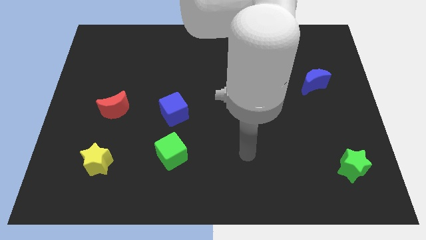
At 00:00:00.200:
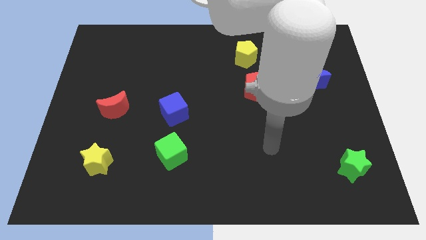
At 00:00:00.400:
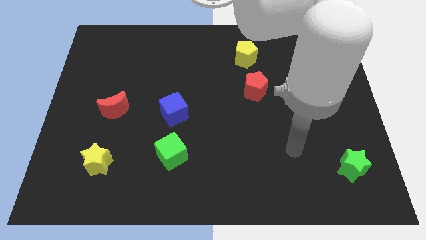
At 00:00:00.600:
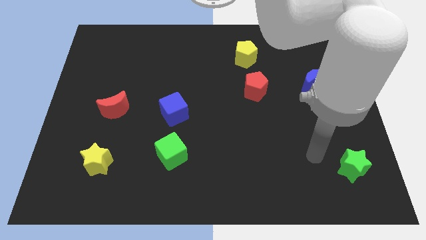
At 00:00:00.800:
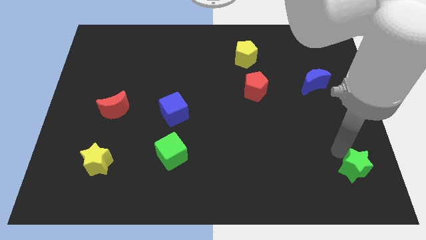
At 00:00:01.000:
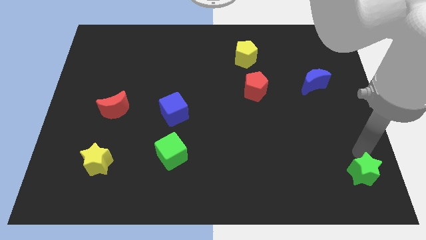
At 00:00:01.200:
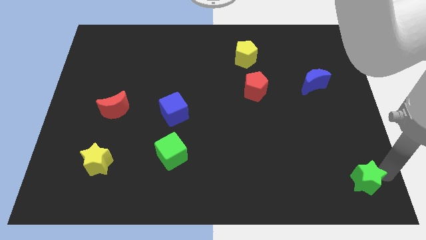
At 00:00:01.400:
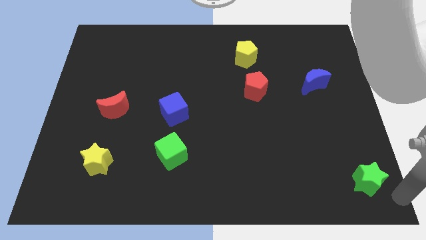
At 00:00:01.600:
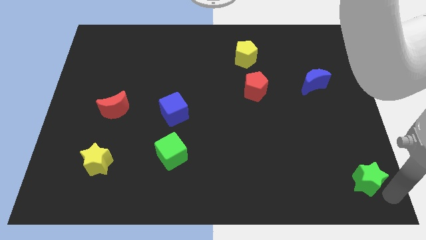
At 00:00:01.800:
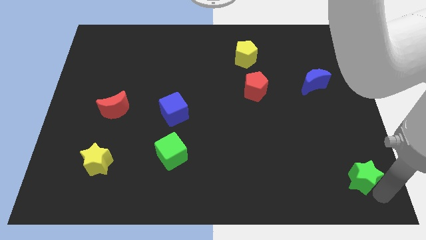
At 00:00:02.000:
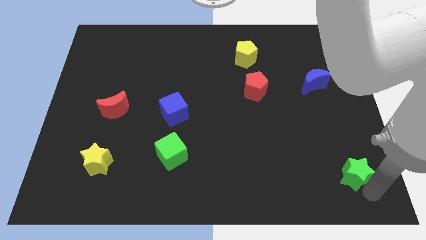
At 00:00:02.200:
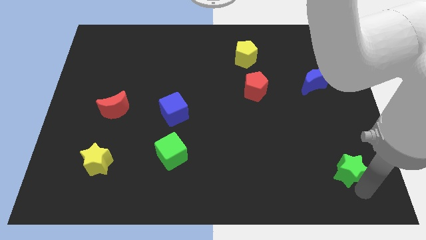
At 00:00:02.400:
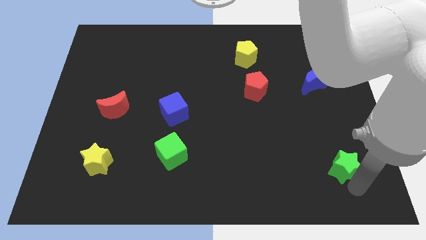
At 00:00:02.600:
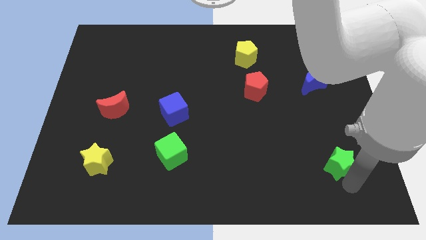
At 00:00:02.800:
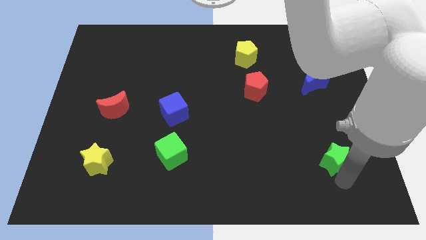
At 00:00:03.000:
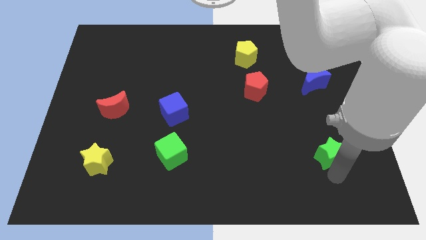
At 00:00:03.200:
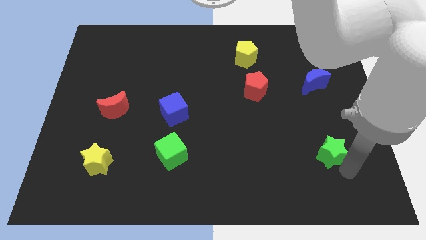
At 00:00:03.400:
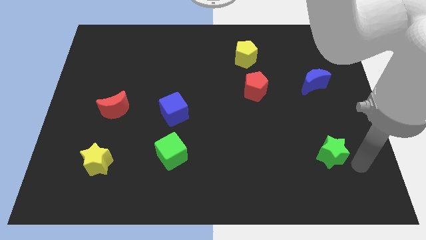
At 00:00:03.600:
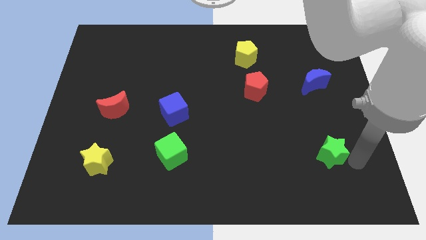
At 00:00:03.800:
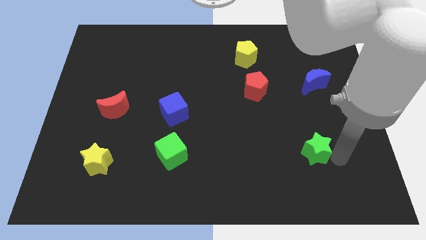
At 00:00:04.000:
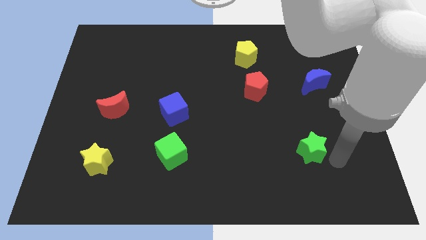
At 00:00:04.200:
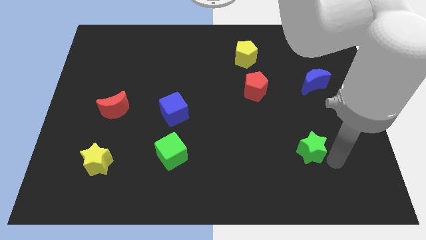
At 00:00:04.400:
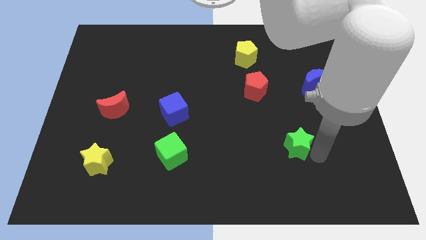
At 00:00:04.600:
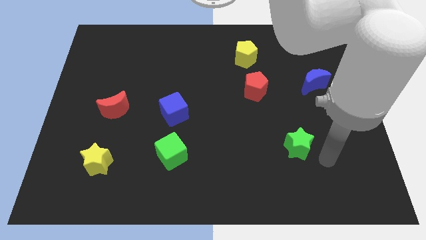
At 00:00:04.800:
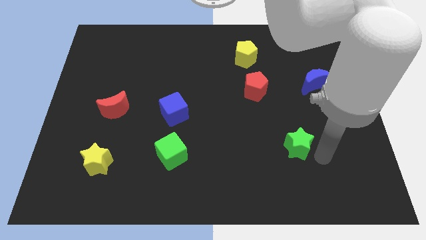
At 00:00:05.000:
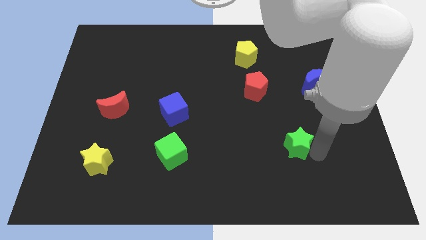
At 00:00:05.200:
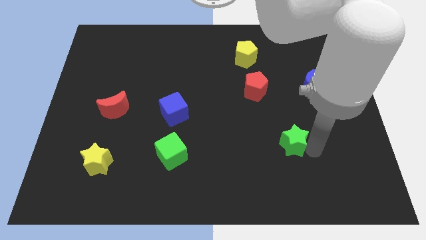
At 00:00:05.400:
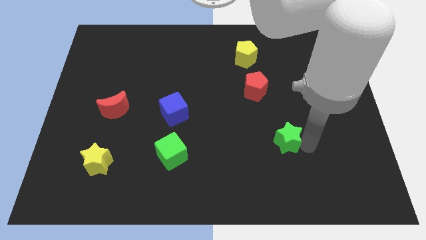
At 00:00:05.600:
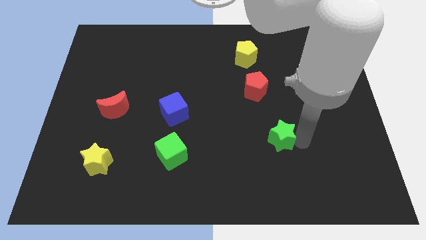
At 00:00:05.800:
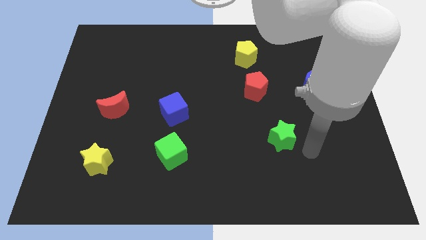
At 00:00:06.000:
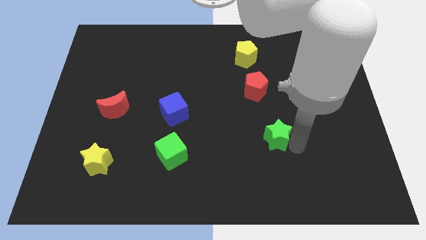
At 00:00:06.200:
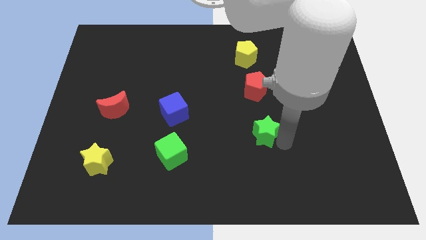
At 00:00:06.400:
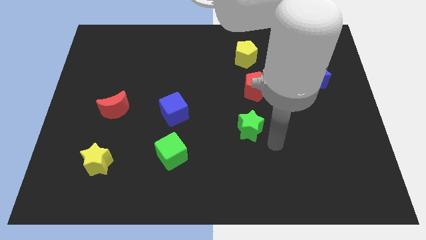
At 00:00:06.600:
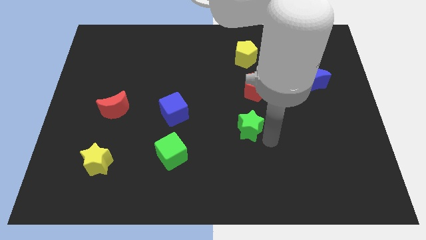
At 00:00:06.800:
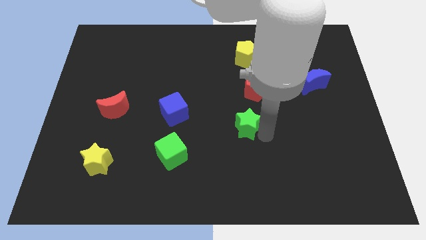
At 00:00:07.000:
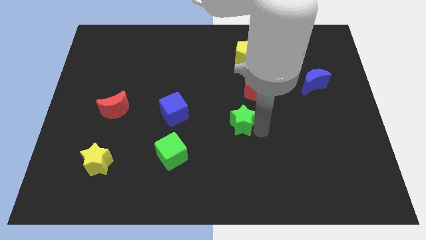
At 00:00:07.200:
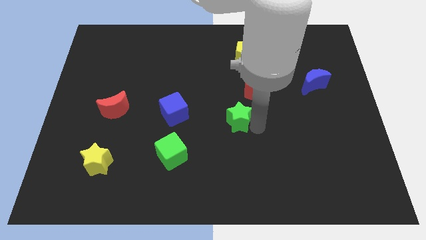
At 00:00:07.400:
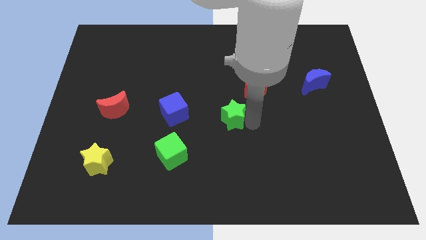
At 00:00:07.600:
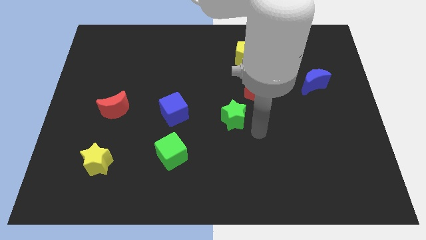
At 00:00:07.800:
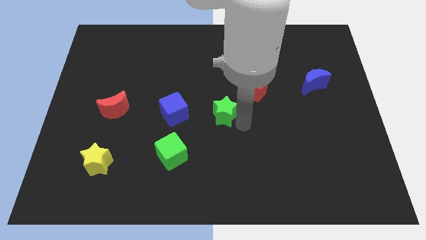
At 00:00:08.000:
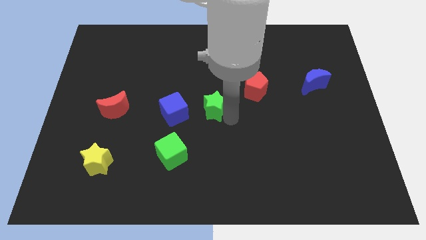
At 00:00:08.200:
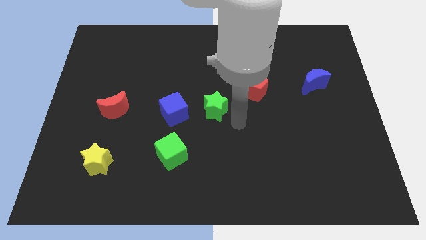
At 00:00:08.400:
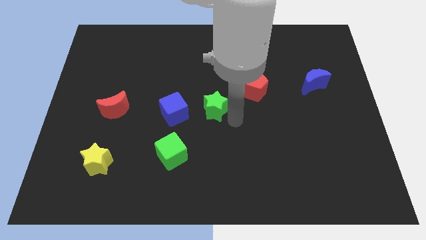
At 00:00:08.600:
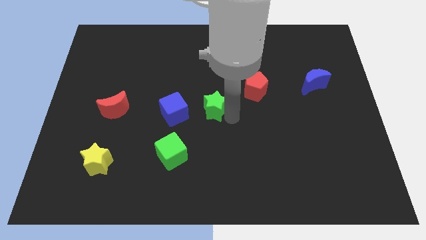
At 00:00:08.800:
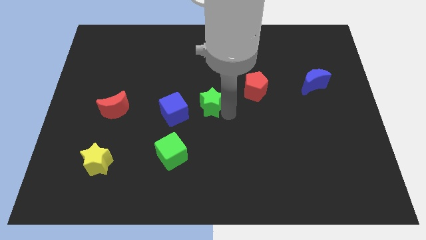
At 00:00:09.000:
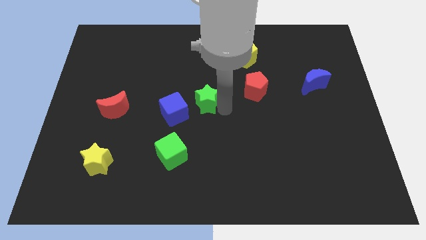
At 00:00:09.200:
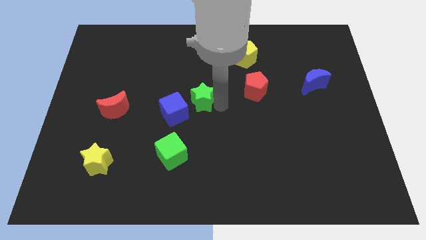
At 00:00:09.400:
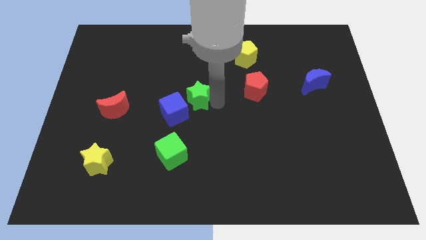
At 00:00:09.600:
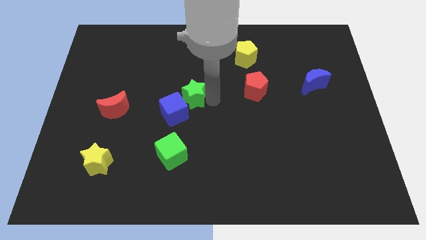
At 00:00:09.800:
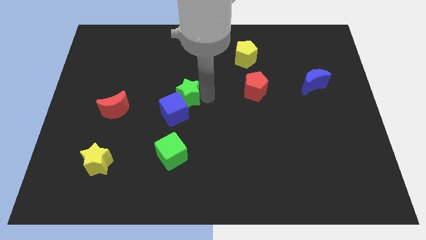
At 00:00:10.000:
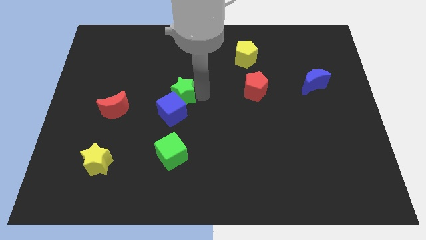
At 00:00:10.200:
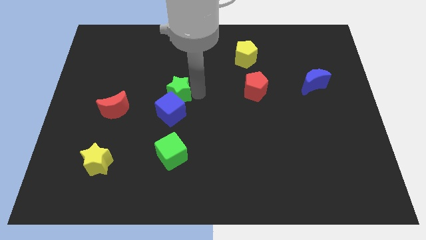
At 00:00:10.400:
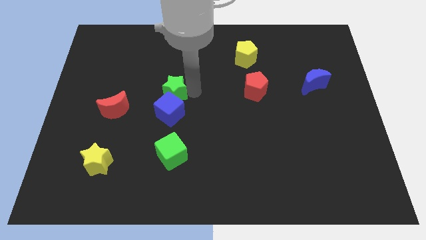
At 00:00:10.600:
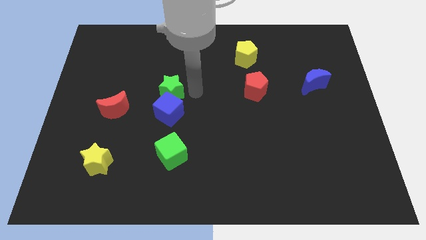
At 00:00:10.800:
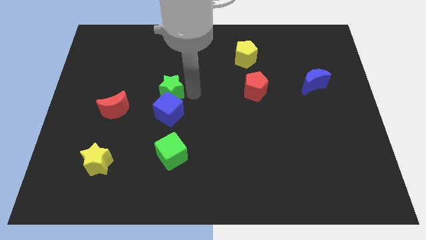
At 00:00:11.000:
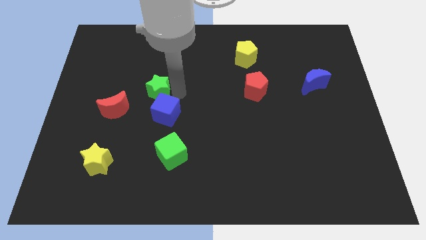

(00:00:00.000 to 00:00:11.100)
slide the green star to the top right of the red moon
